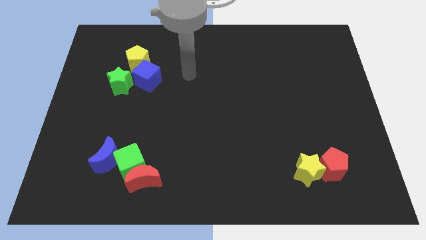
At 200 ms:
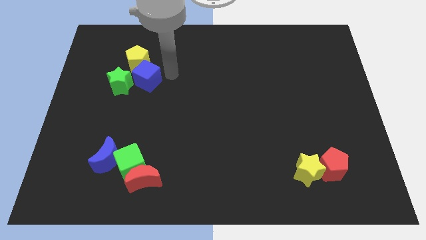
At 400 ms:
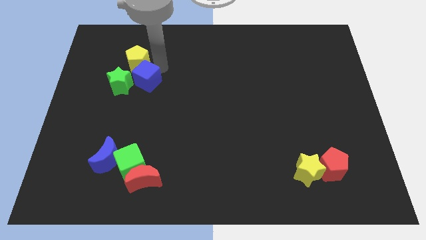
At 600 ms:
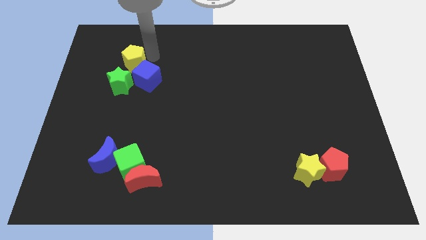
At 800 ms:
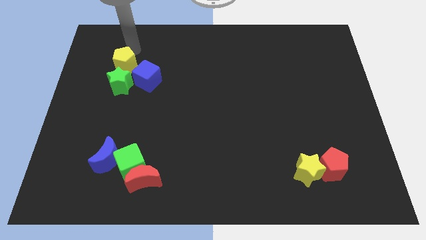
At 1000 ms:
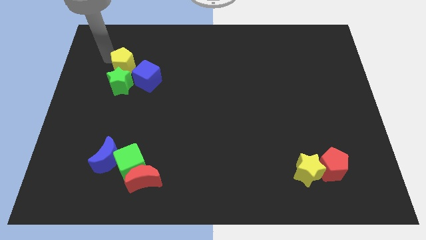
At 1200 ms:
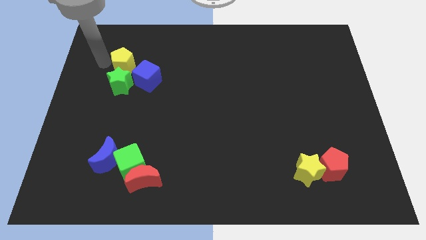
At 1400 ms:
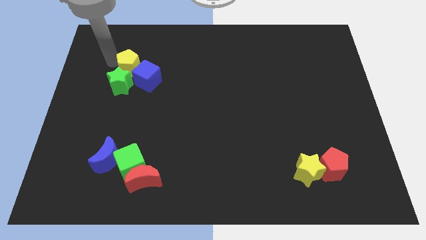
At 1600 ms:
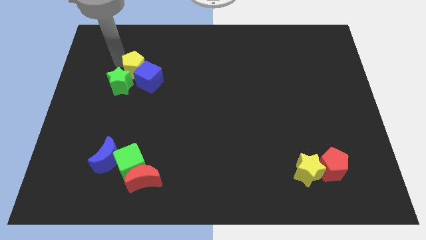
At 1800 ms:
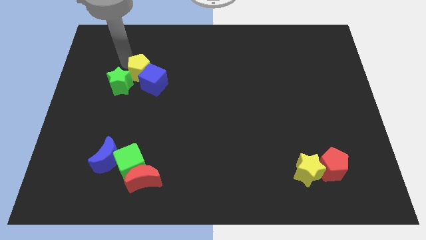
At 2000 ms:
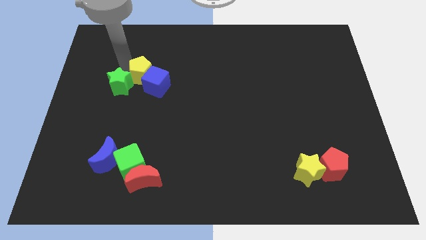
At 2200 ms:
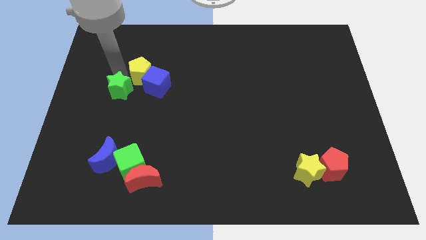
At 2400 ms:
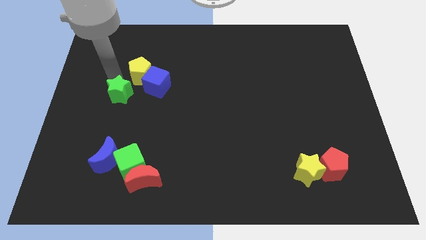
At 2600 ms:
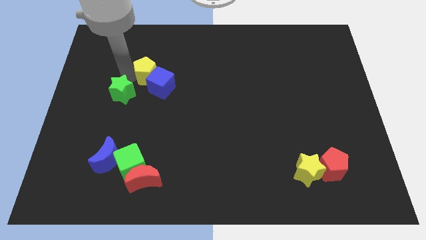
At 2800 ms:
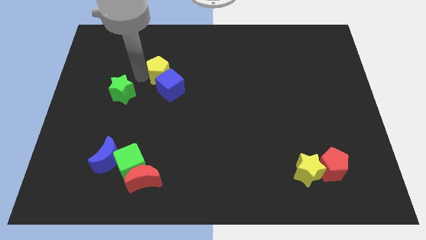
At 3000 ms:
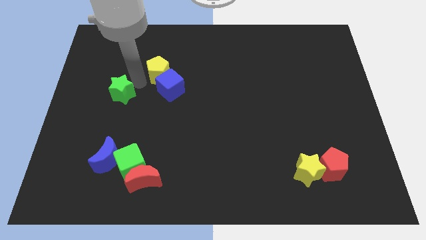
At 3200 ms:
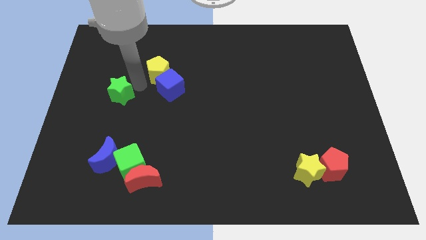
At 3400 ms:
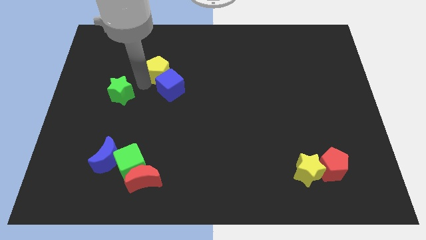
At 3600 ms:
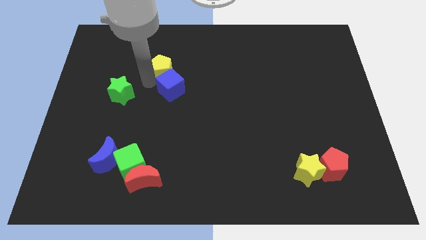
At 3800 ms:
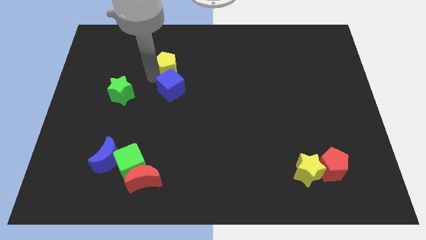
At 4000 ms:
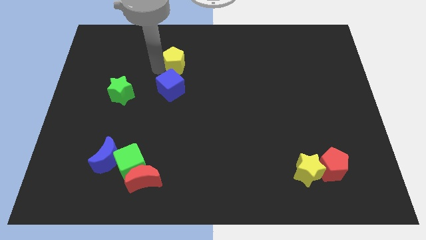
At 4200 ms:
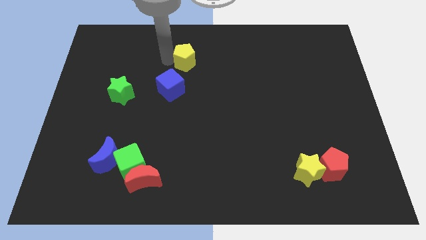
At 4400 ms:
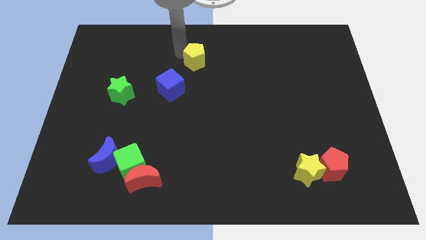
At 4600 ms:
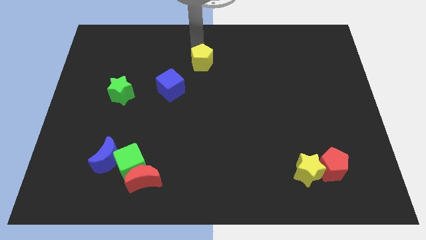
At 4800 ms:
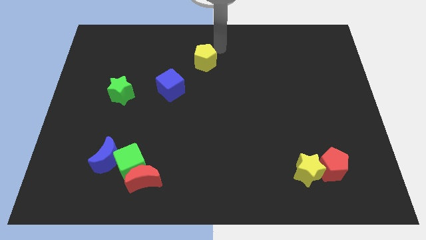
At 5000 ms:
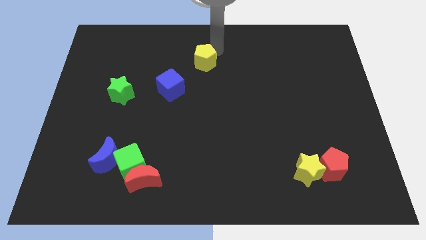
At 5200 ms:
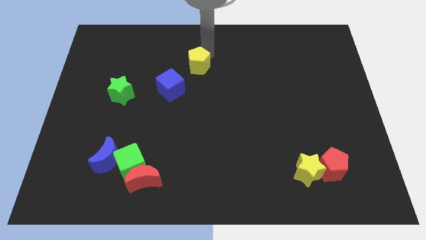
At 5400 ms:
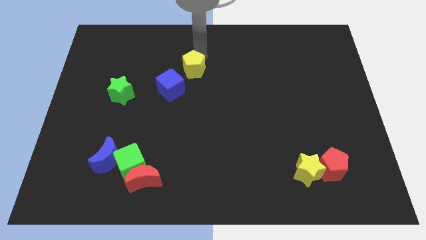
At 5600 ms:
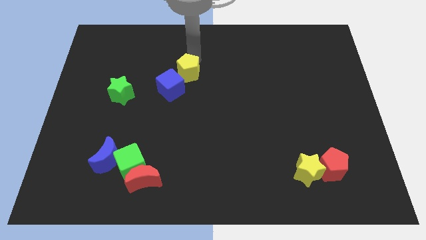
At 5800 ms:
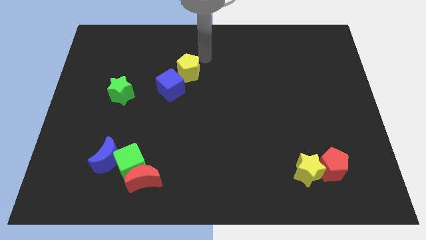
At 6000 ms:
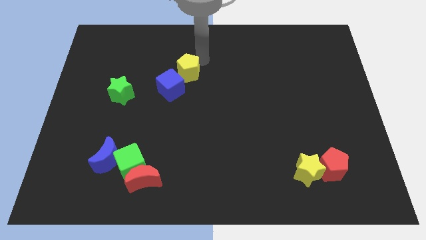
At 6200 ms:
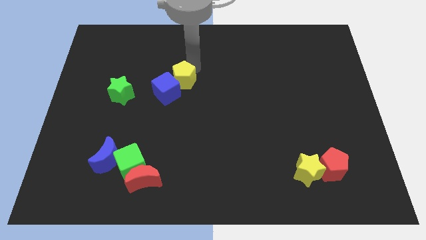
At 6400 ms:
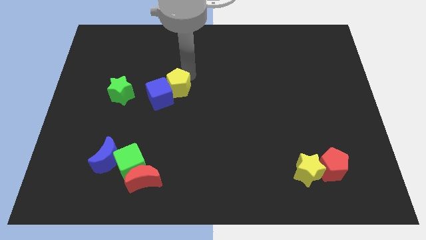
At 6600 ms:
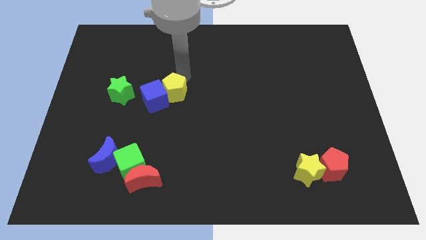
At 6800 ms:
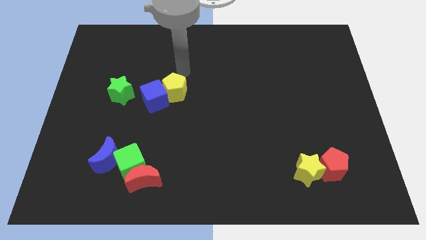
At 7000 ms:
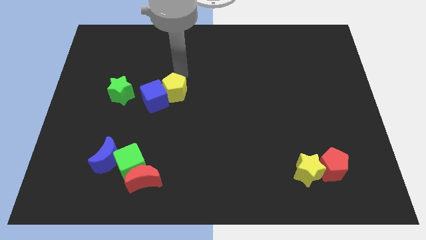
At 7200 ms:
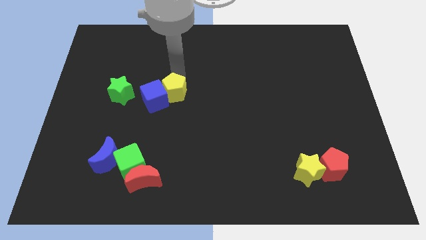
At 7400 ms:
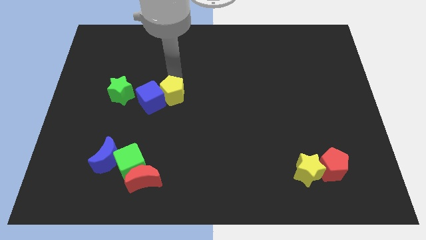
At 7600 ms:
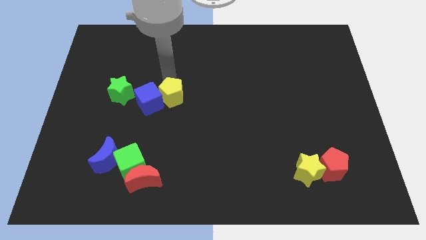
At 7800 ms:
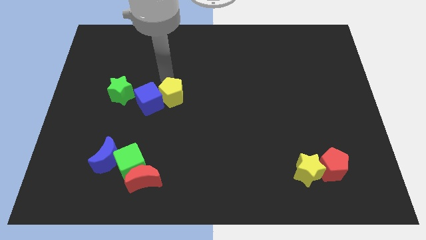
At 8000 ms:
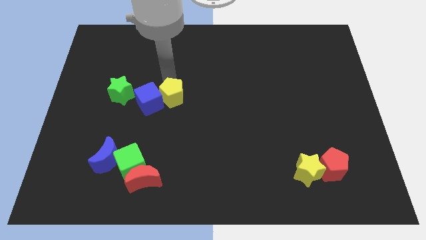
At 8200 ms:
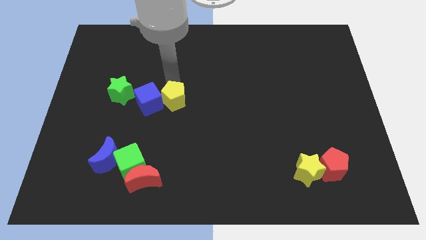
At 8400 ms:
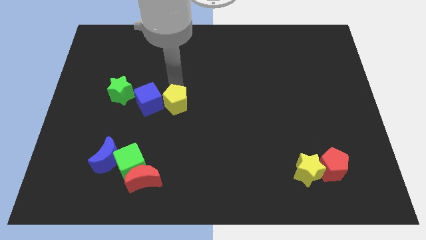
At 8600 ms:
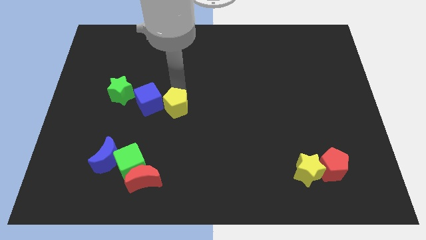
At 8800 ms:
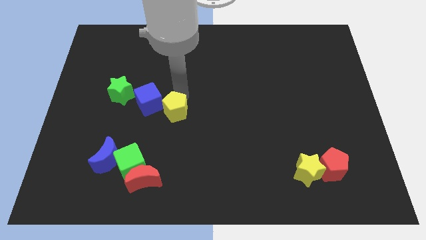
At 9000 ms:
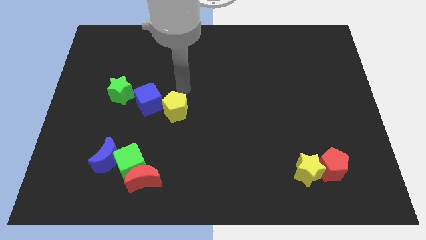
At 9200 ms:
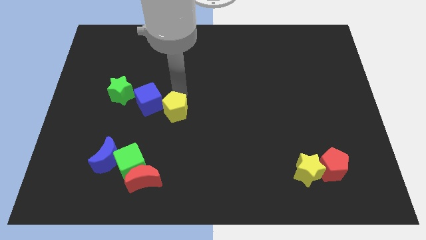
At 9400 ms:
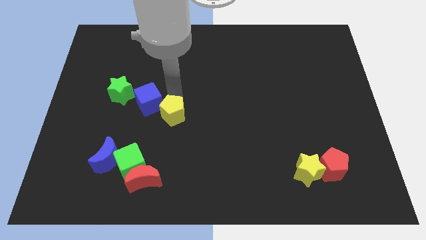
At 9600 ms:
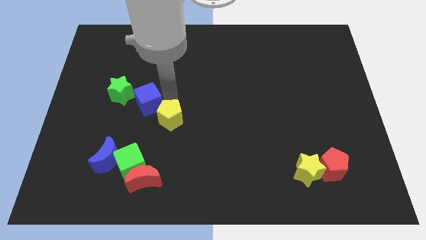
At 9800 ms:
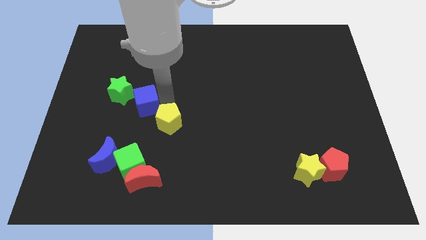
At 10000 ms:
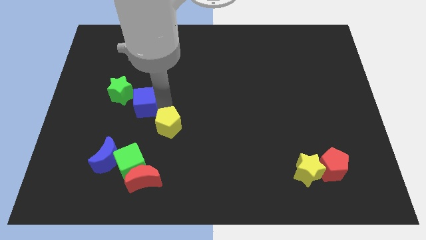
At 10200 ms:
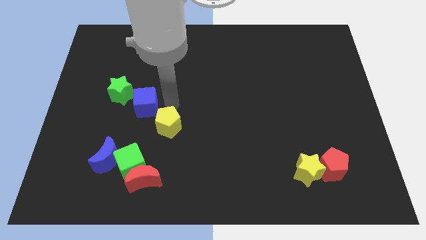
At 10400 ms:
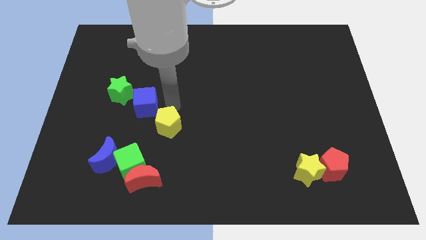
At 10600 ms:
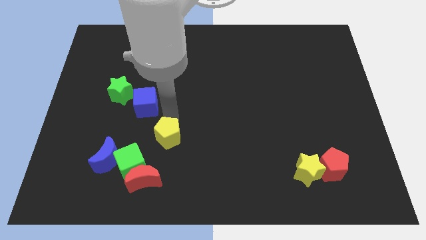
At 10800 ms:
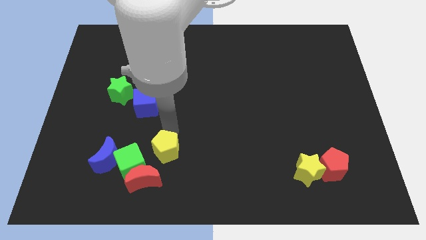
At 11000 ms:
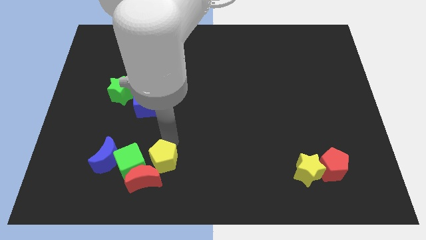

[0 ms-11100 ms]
slide the yellow pentagon to the red moon

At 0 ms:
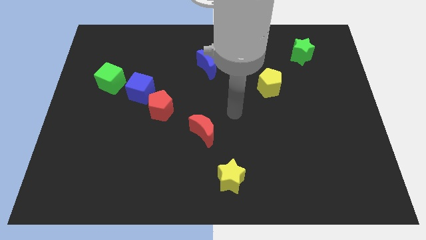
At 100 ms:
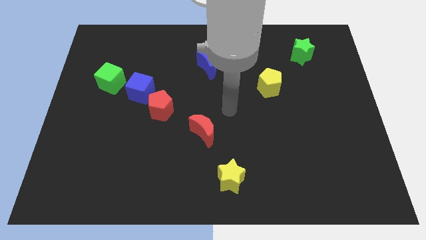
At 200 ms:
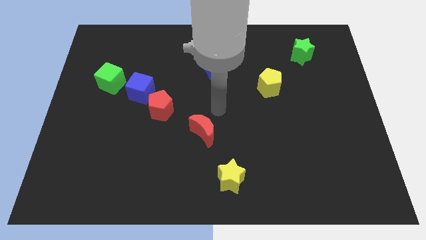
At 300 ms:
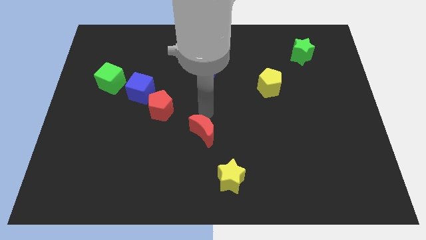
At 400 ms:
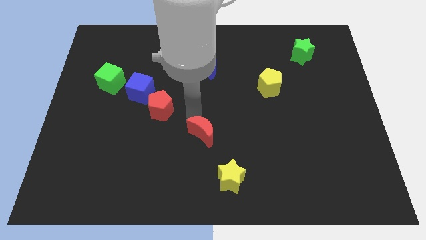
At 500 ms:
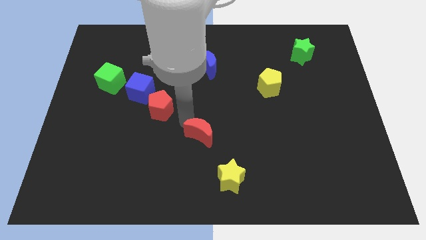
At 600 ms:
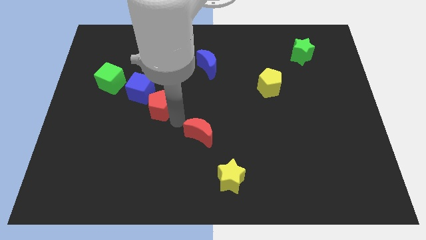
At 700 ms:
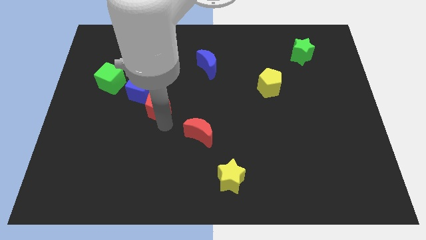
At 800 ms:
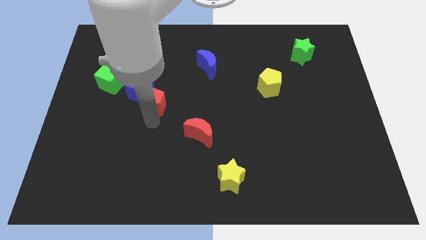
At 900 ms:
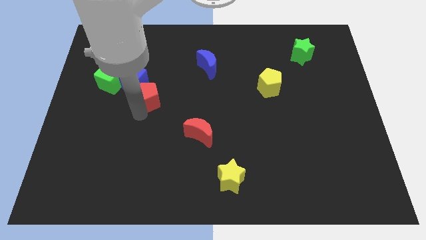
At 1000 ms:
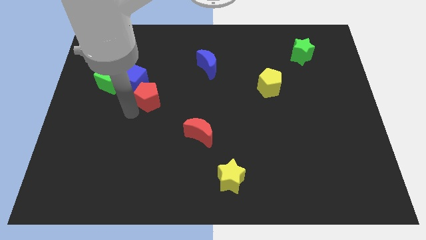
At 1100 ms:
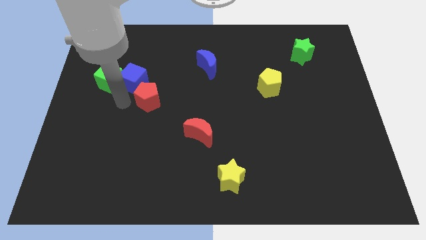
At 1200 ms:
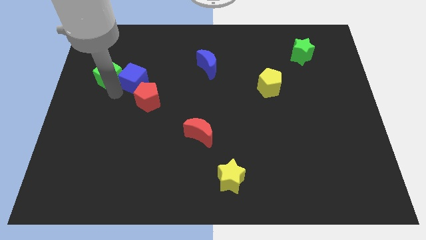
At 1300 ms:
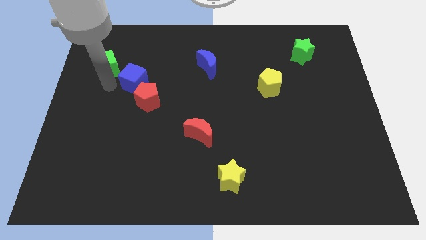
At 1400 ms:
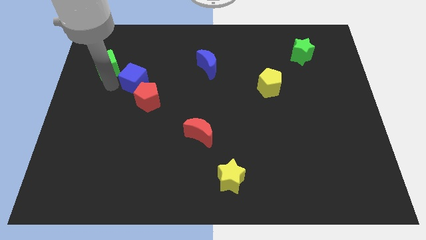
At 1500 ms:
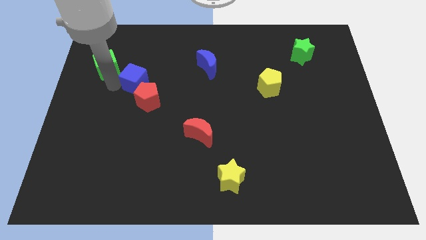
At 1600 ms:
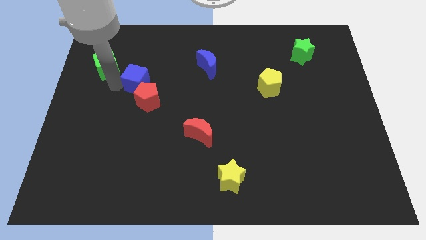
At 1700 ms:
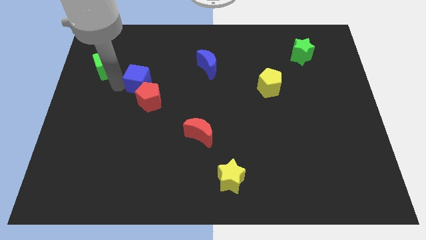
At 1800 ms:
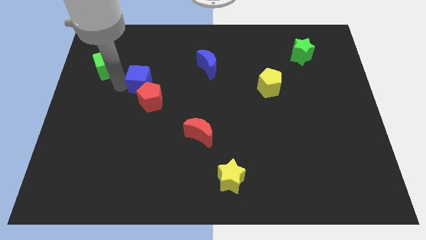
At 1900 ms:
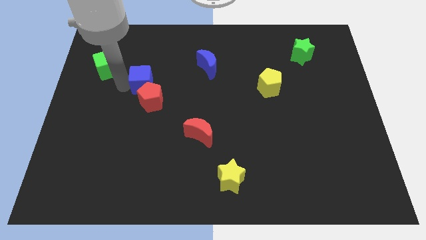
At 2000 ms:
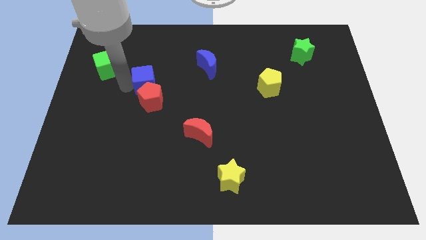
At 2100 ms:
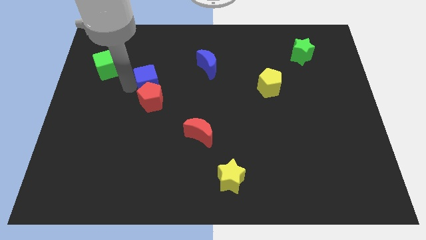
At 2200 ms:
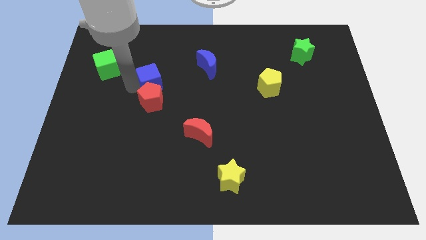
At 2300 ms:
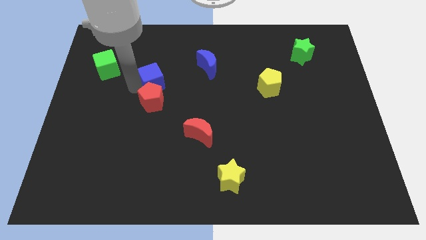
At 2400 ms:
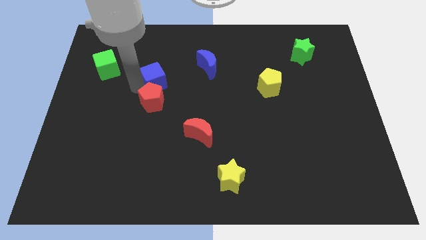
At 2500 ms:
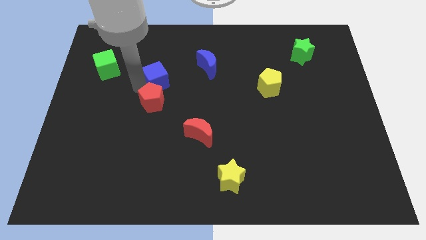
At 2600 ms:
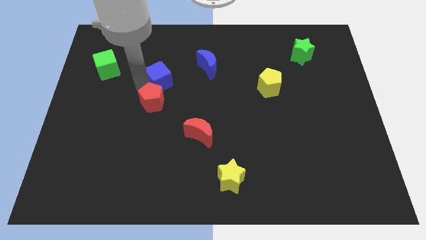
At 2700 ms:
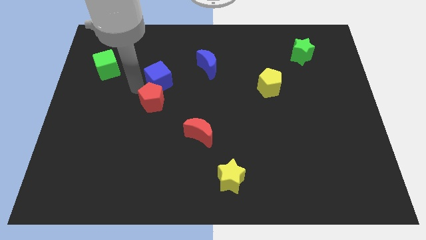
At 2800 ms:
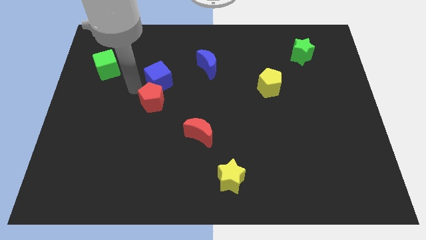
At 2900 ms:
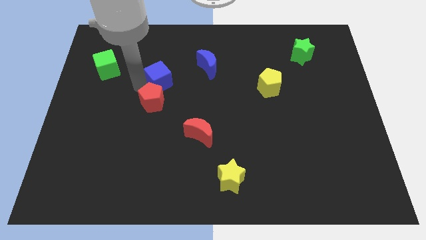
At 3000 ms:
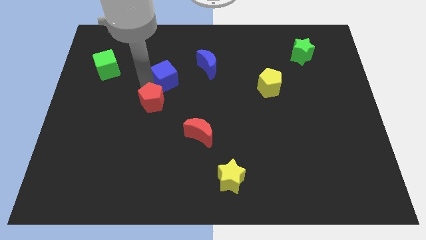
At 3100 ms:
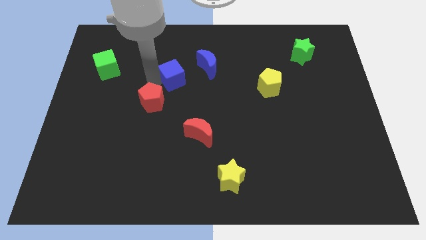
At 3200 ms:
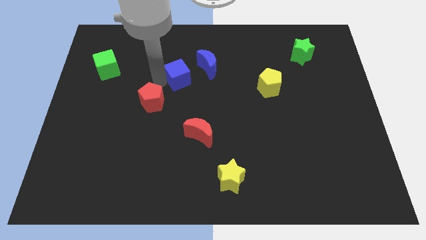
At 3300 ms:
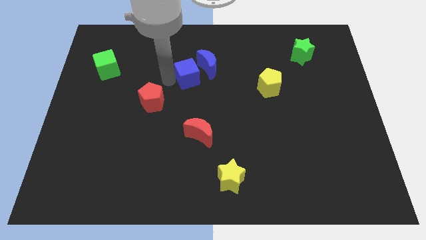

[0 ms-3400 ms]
slide the blue cube towards the blue moon
